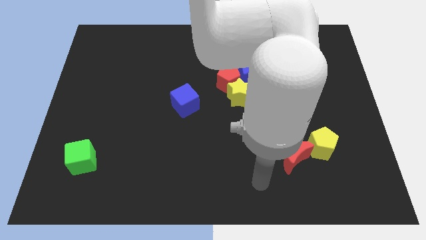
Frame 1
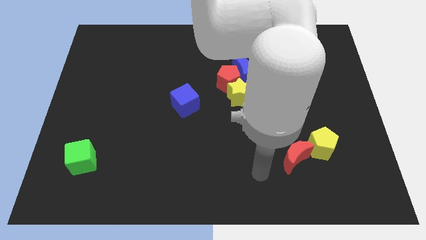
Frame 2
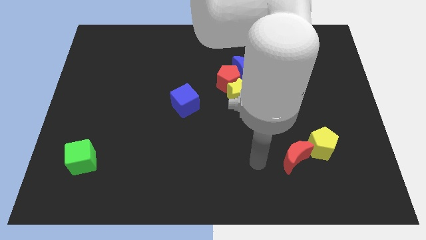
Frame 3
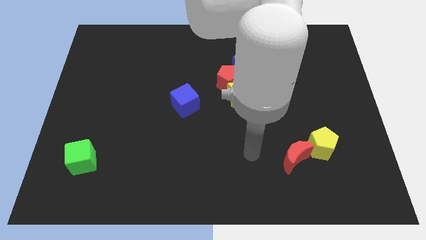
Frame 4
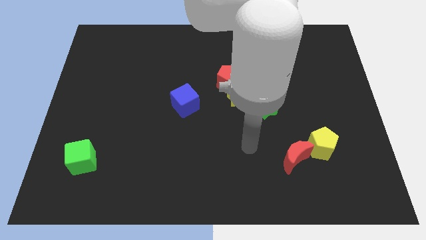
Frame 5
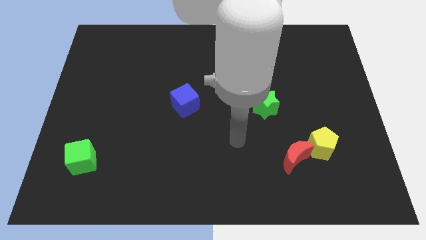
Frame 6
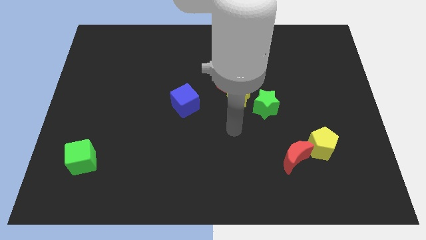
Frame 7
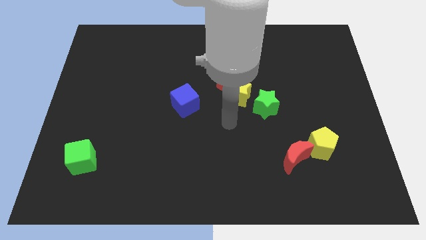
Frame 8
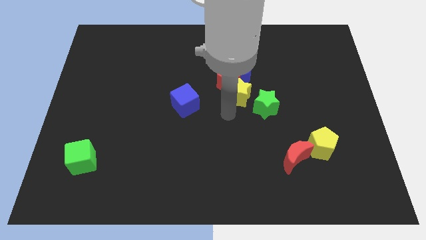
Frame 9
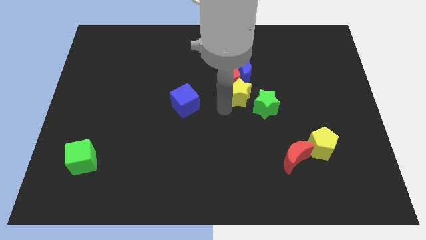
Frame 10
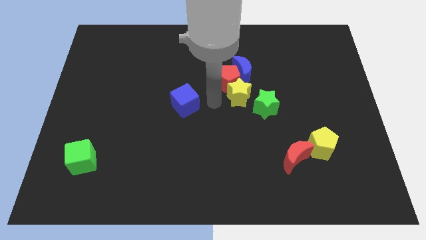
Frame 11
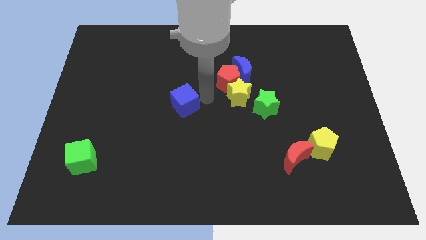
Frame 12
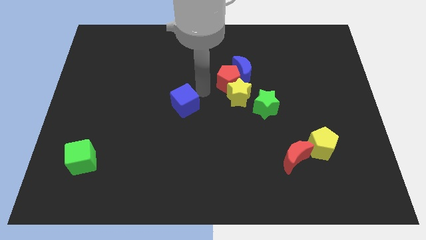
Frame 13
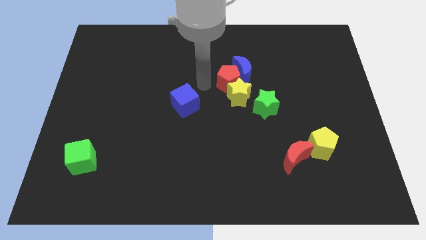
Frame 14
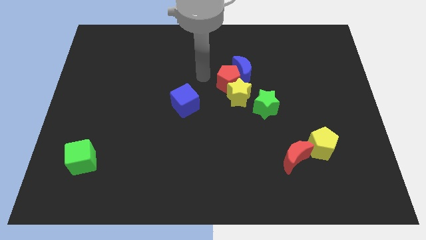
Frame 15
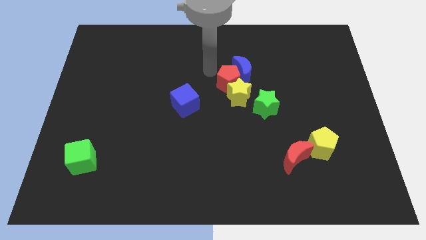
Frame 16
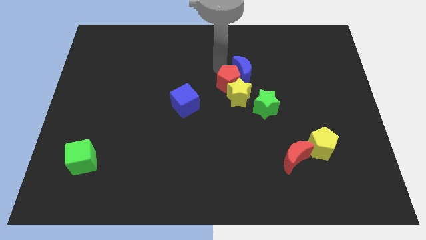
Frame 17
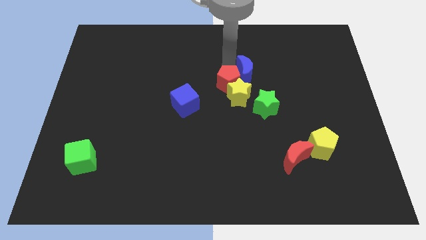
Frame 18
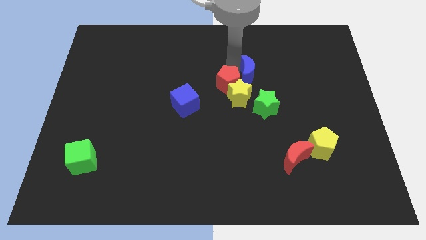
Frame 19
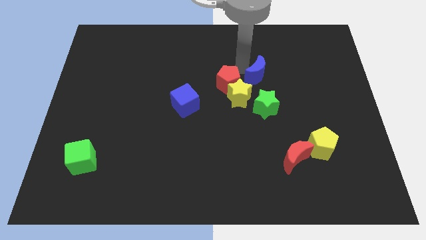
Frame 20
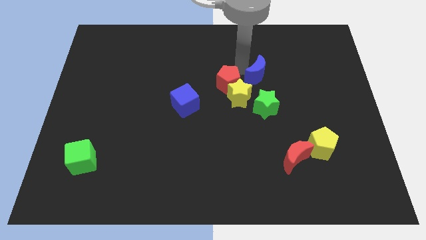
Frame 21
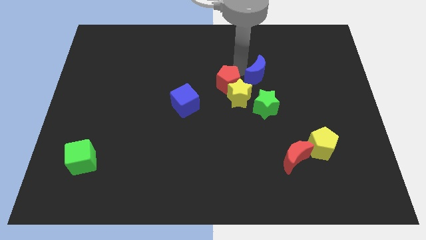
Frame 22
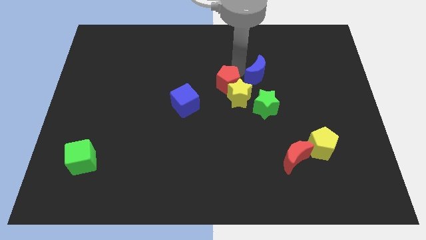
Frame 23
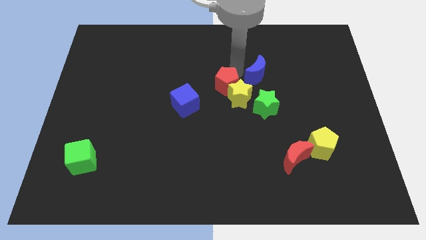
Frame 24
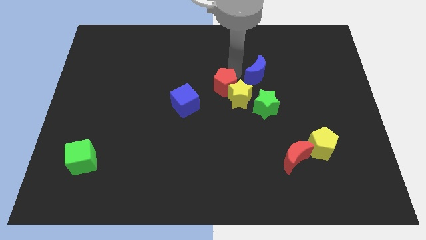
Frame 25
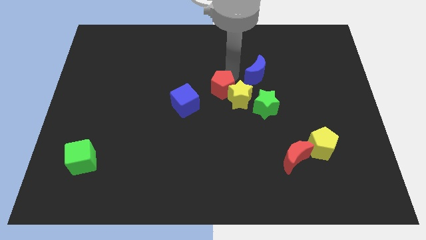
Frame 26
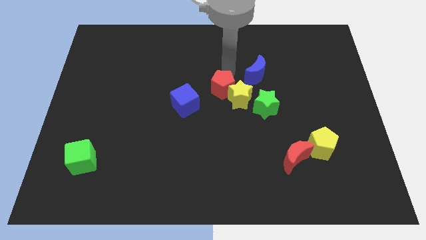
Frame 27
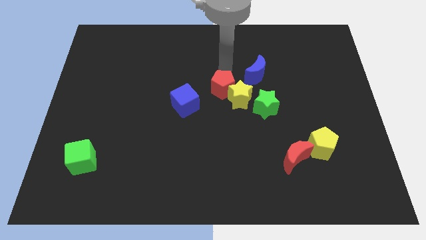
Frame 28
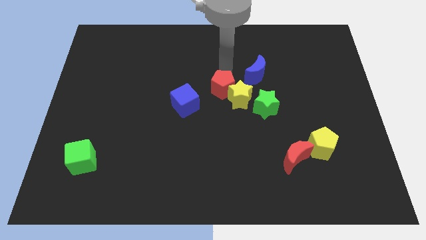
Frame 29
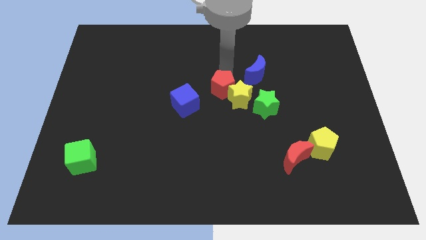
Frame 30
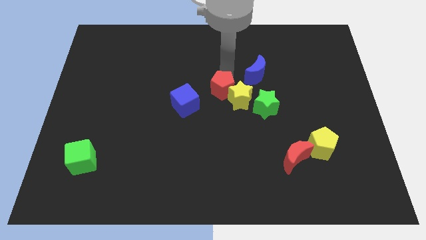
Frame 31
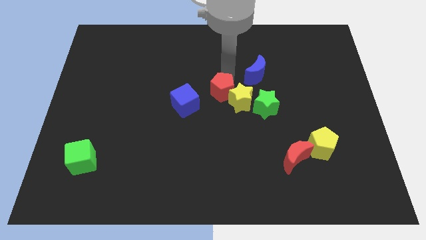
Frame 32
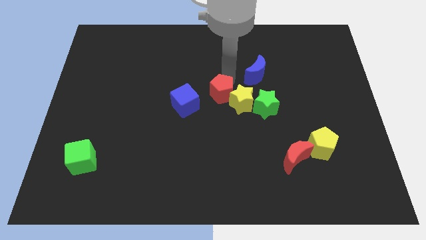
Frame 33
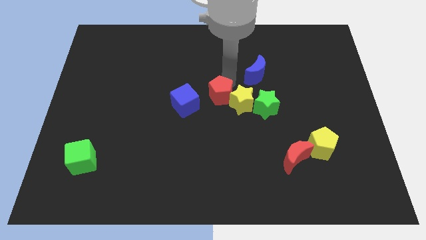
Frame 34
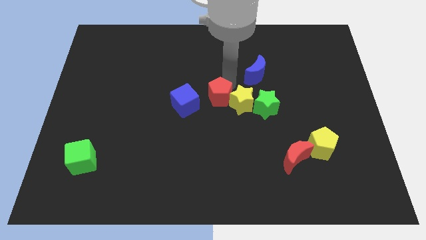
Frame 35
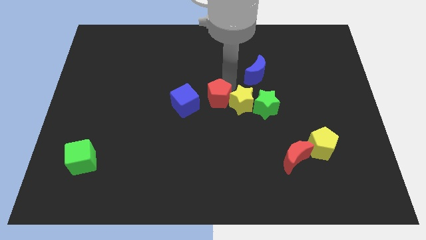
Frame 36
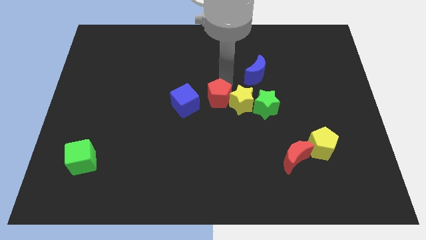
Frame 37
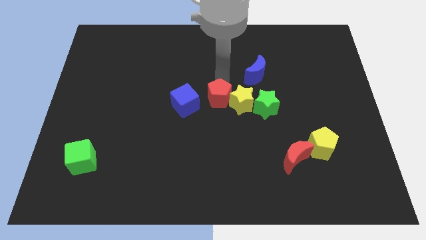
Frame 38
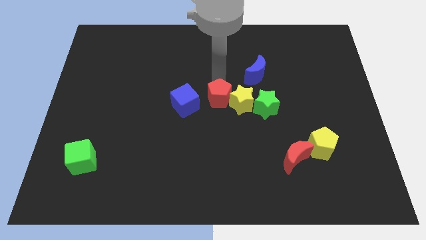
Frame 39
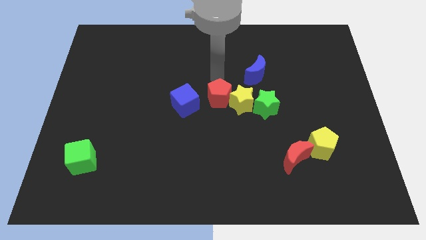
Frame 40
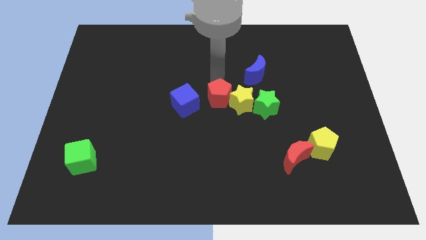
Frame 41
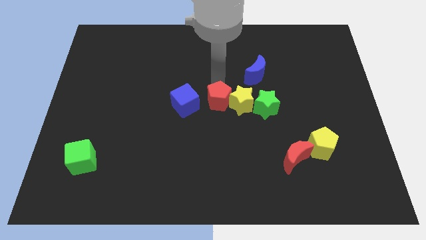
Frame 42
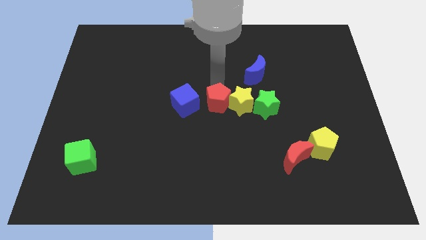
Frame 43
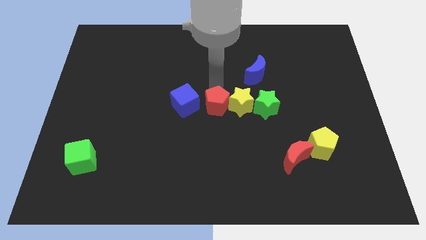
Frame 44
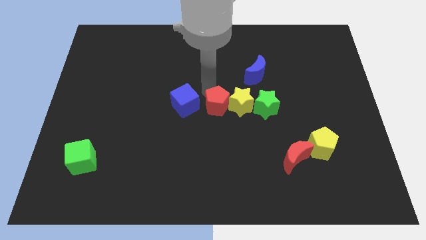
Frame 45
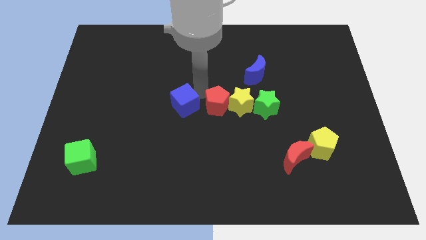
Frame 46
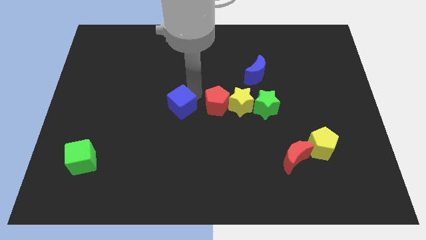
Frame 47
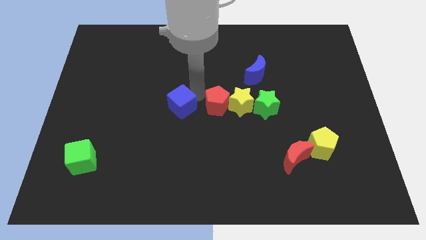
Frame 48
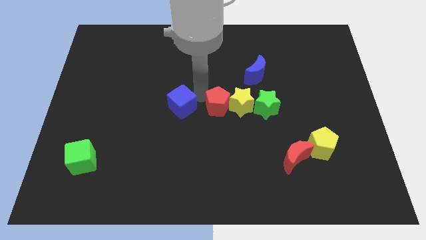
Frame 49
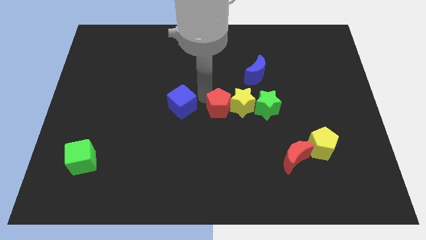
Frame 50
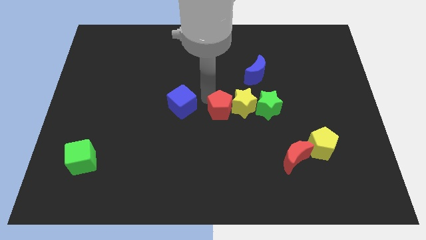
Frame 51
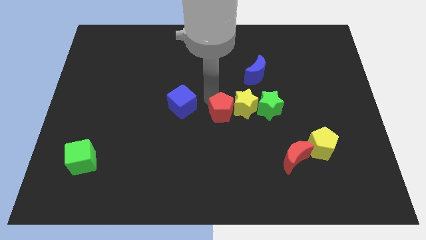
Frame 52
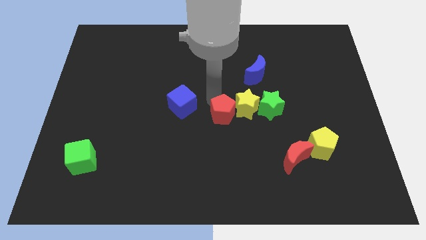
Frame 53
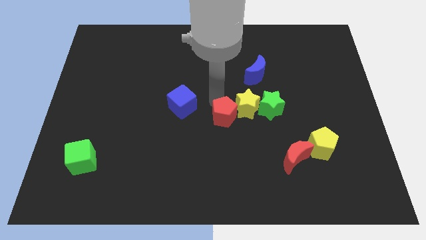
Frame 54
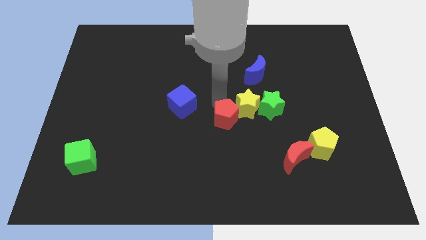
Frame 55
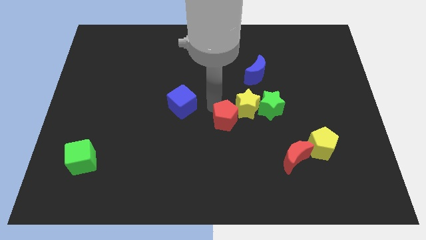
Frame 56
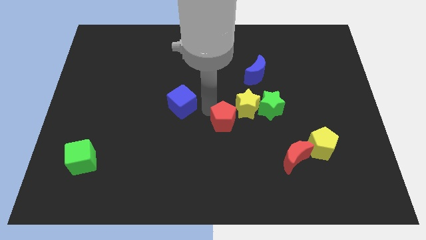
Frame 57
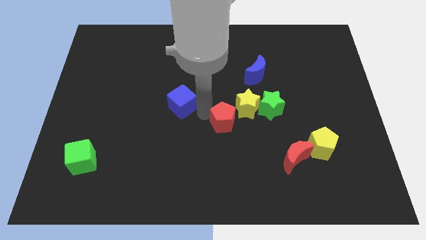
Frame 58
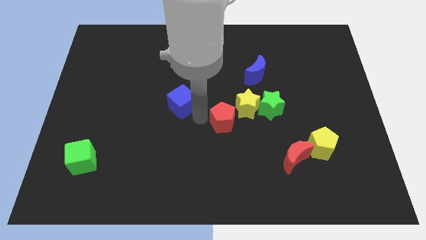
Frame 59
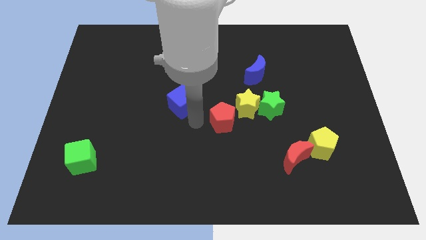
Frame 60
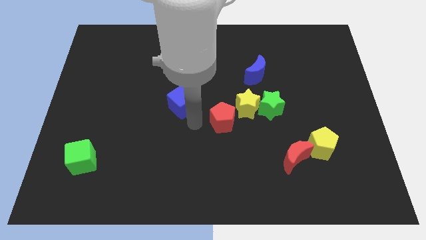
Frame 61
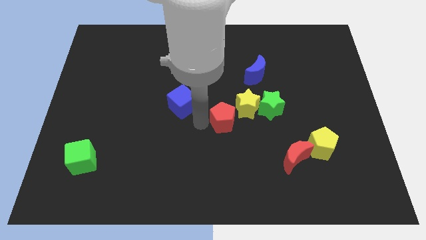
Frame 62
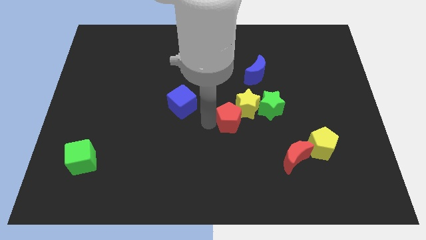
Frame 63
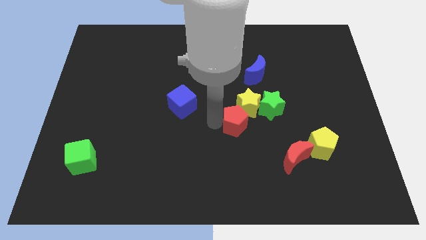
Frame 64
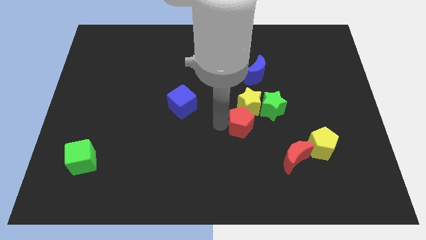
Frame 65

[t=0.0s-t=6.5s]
push the red pentagon down and then right a bit

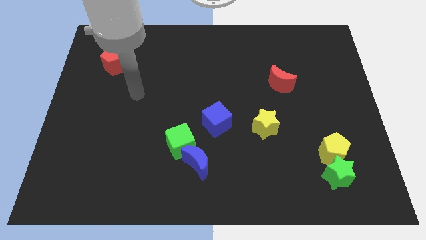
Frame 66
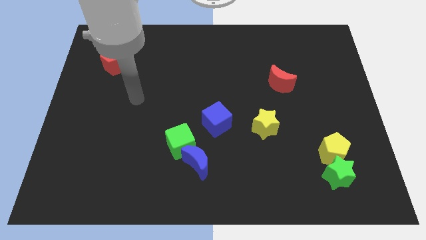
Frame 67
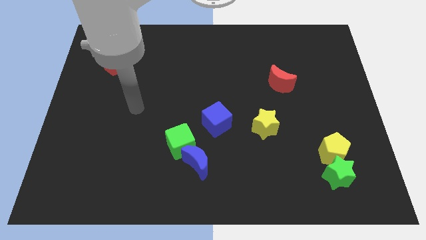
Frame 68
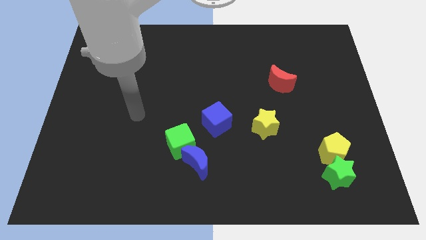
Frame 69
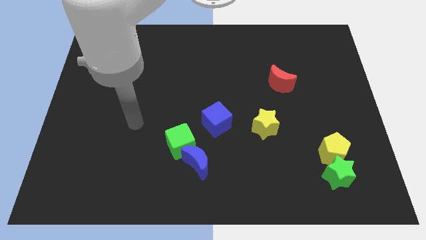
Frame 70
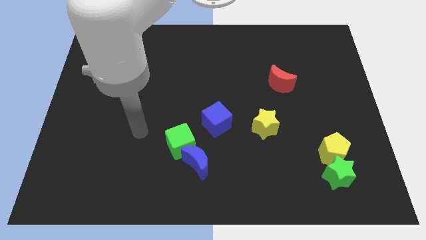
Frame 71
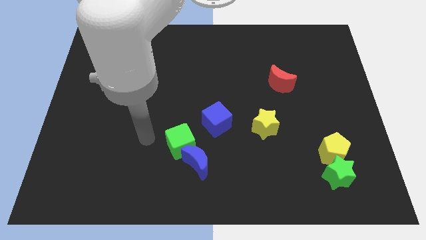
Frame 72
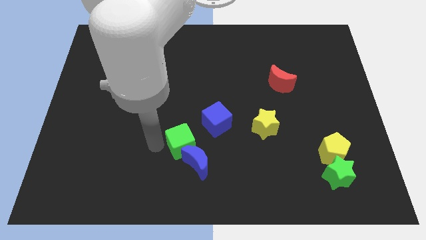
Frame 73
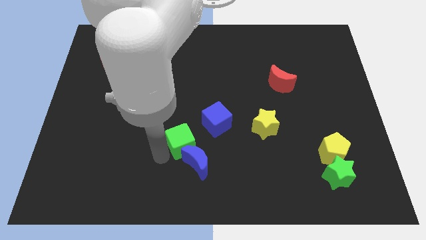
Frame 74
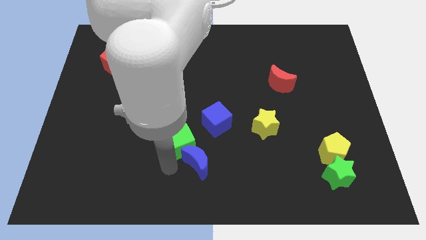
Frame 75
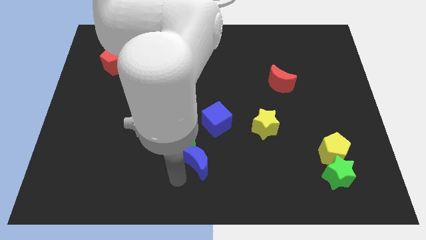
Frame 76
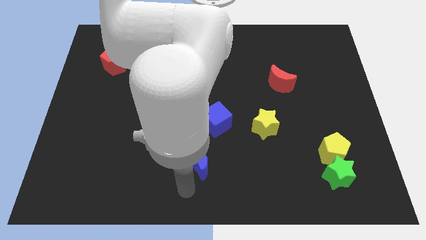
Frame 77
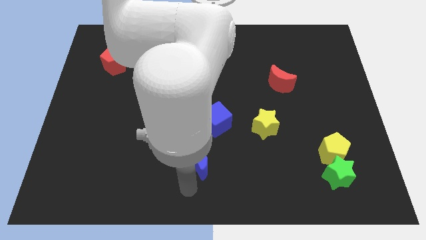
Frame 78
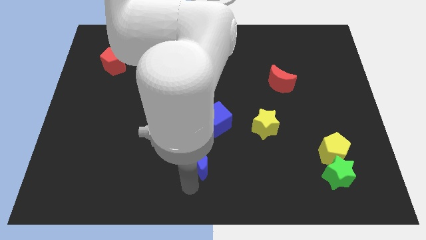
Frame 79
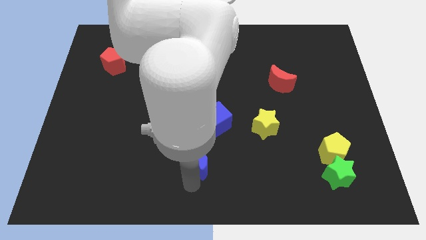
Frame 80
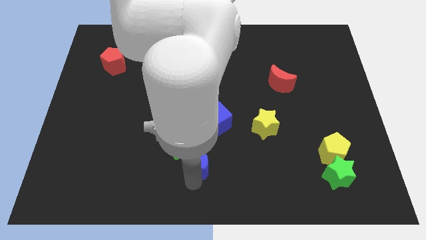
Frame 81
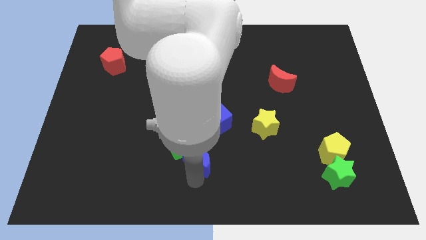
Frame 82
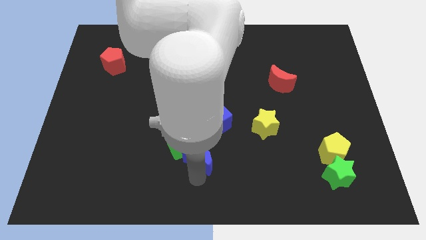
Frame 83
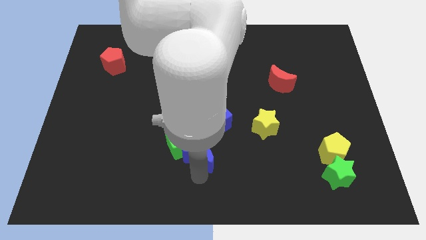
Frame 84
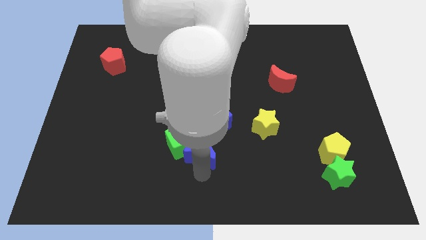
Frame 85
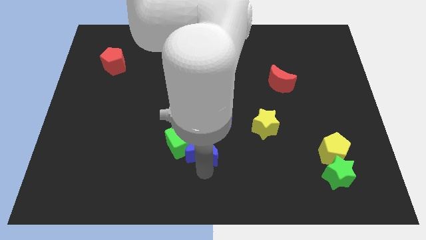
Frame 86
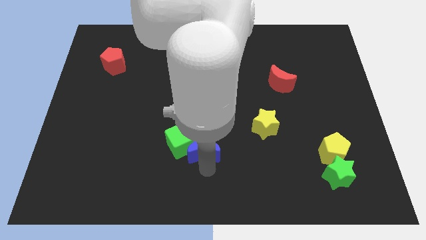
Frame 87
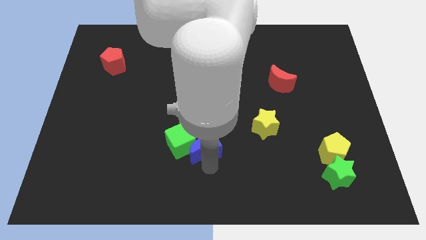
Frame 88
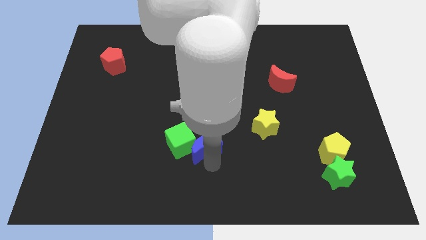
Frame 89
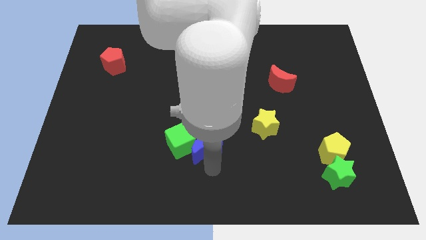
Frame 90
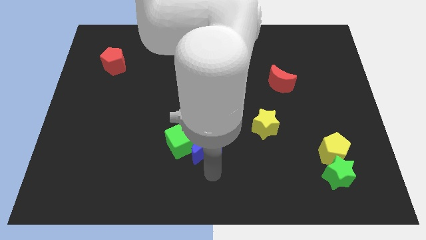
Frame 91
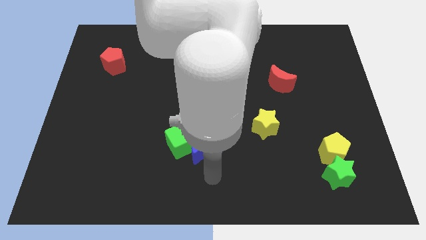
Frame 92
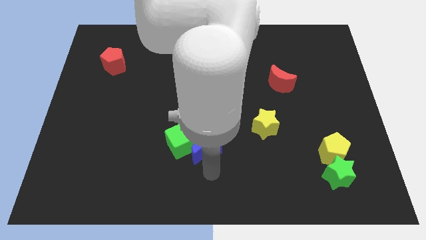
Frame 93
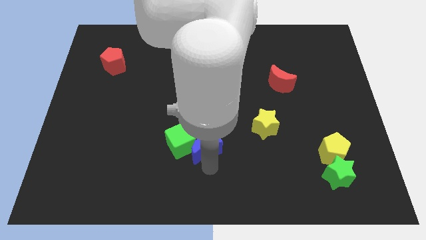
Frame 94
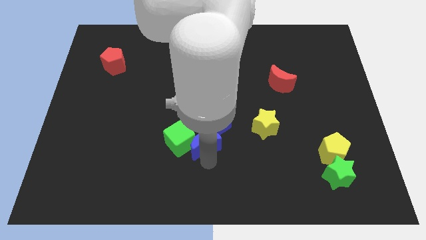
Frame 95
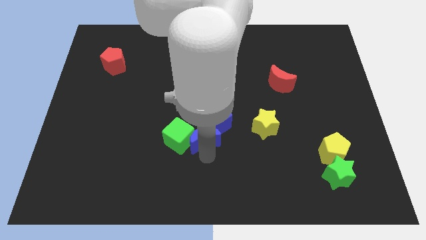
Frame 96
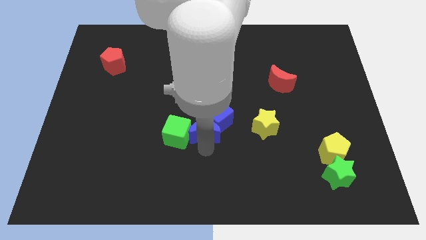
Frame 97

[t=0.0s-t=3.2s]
slightly push the blue moon upwards
